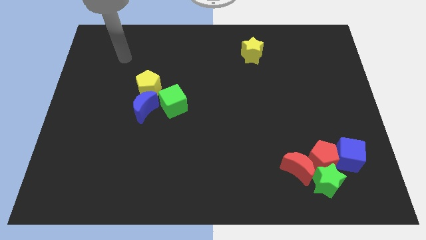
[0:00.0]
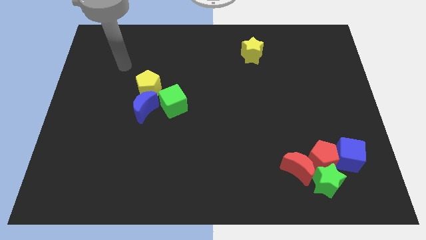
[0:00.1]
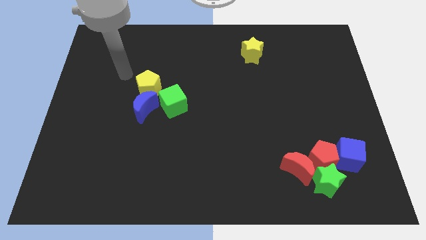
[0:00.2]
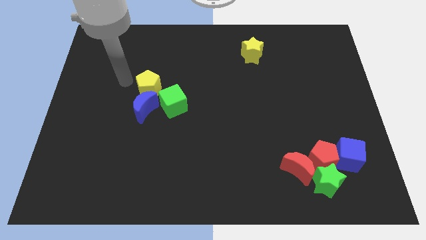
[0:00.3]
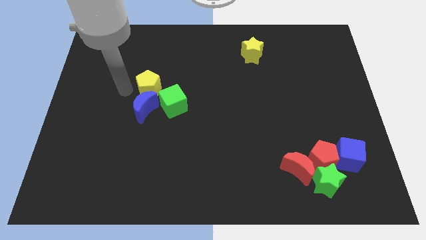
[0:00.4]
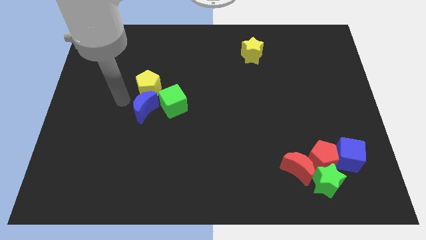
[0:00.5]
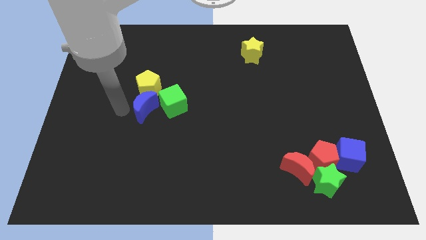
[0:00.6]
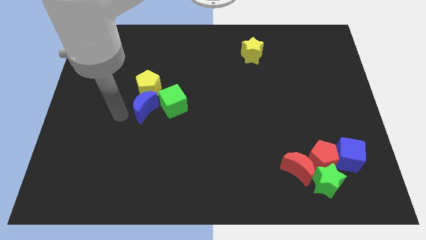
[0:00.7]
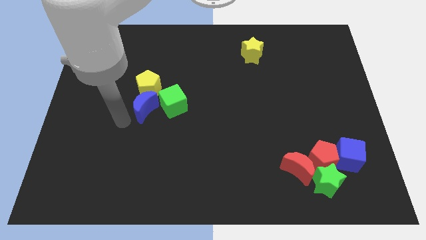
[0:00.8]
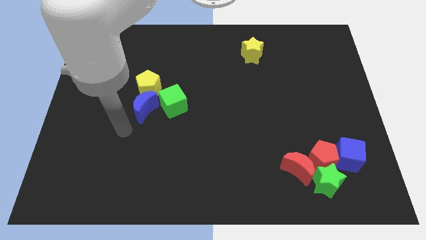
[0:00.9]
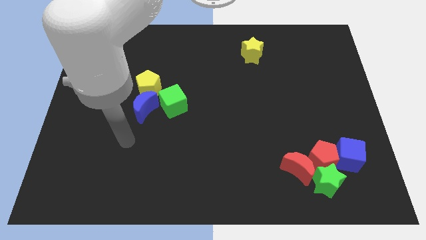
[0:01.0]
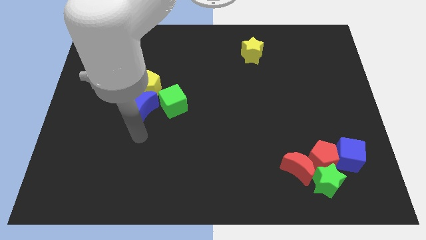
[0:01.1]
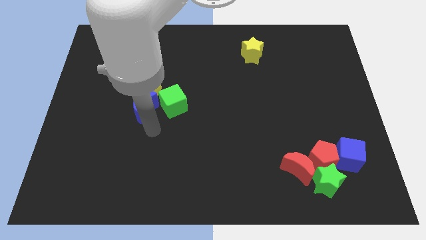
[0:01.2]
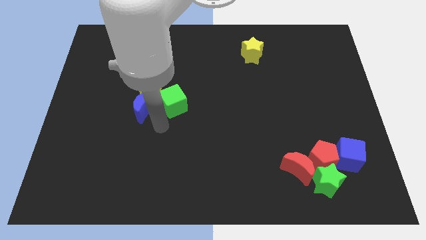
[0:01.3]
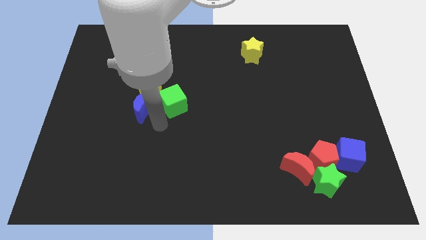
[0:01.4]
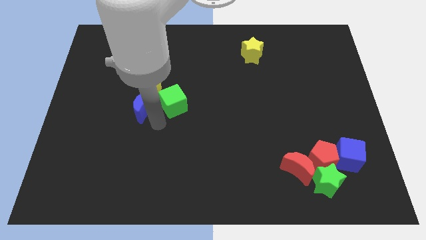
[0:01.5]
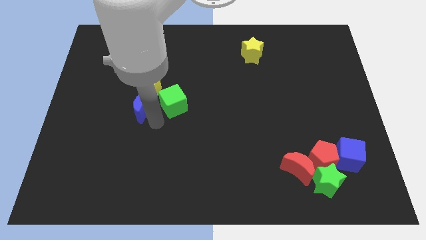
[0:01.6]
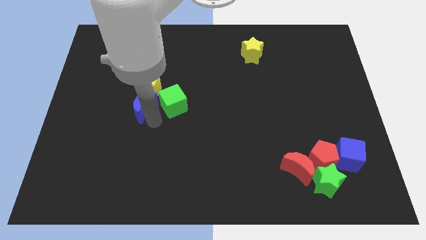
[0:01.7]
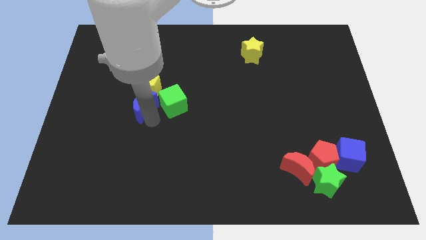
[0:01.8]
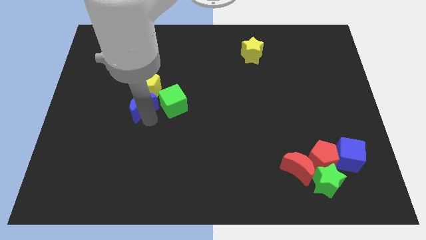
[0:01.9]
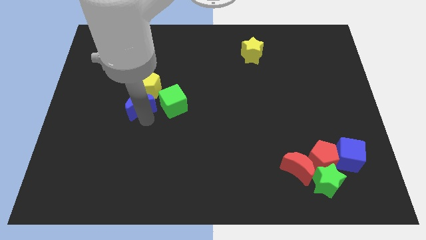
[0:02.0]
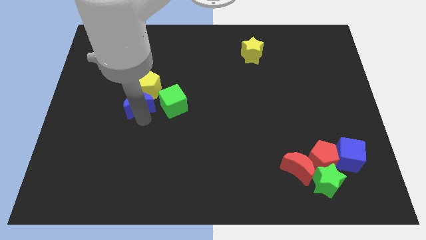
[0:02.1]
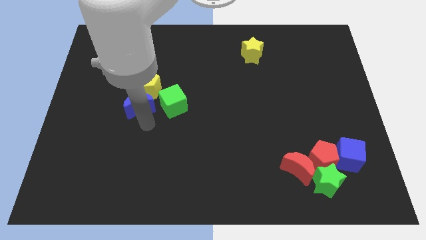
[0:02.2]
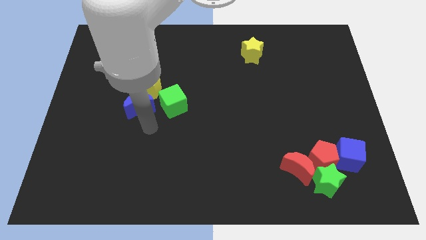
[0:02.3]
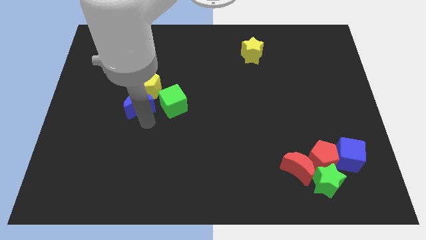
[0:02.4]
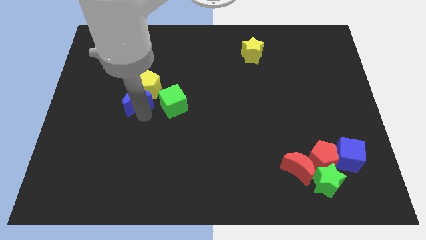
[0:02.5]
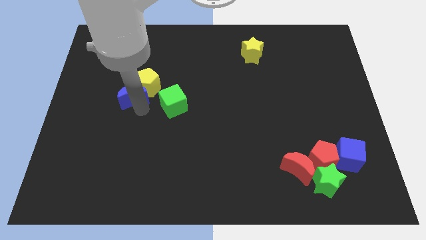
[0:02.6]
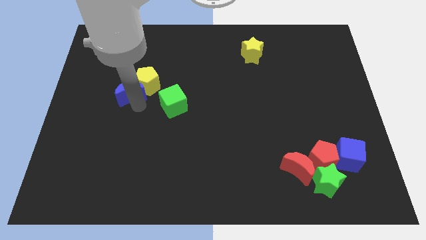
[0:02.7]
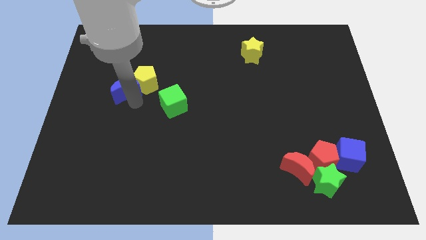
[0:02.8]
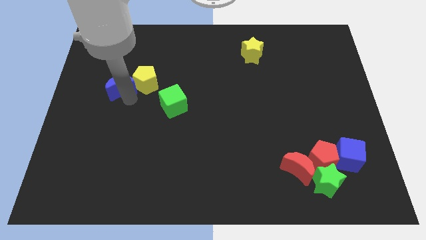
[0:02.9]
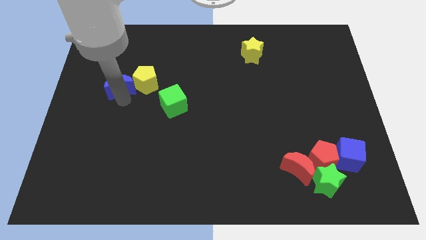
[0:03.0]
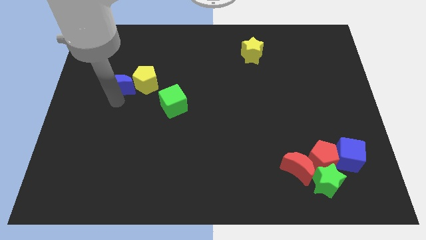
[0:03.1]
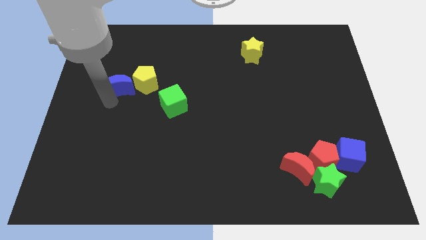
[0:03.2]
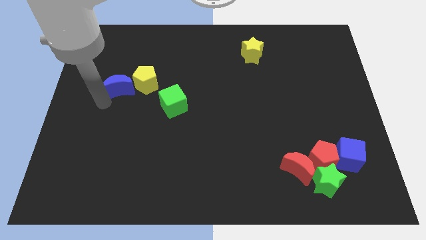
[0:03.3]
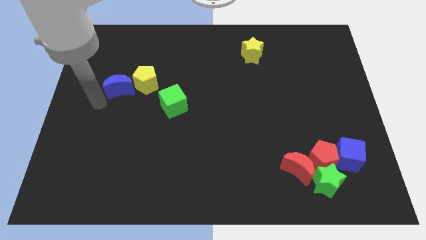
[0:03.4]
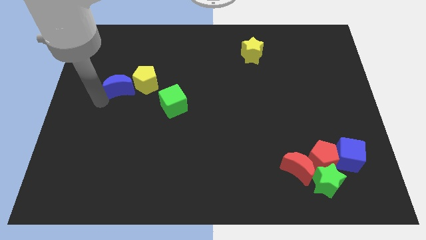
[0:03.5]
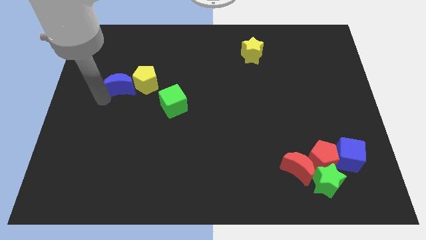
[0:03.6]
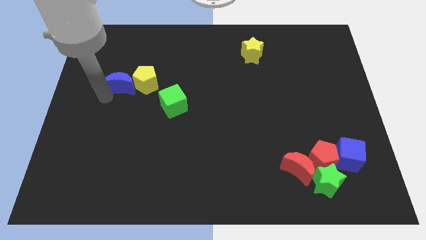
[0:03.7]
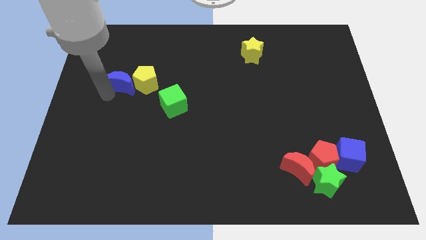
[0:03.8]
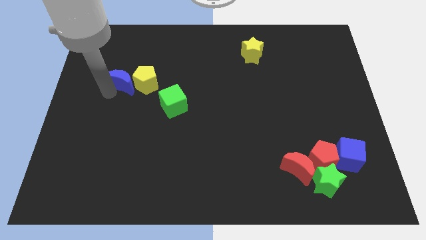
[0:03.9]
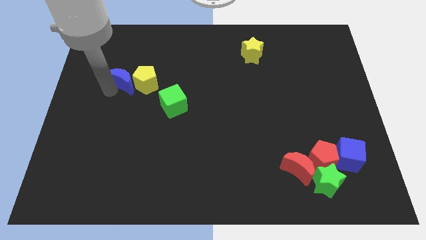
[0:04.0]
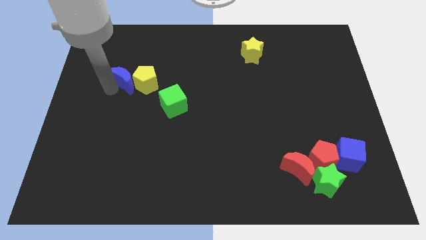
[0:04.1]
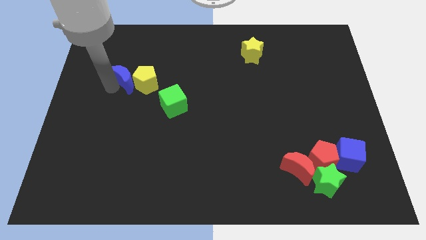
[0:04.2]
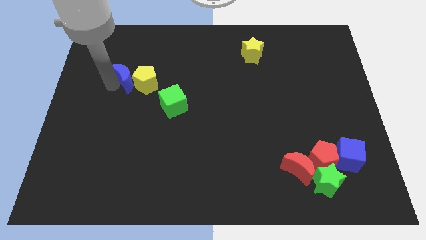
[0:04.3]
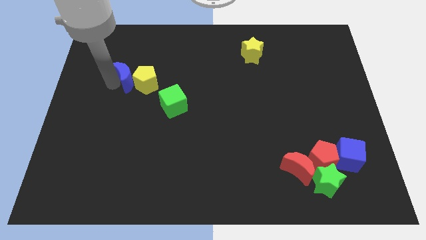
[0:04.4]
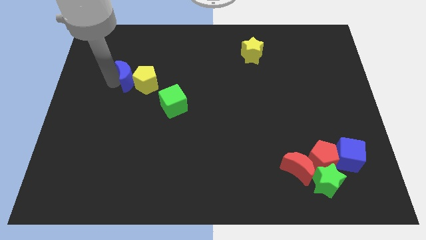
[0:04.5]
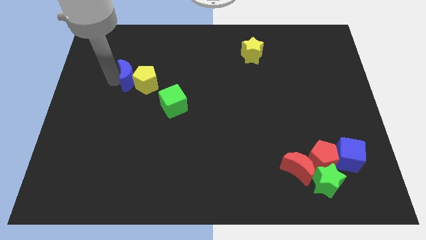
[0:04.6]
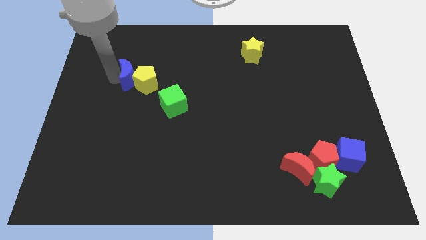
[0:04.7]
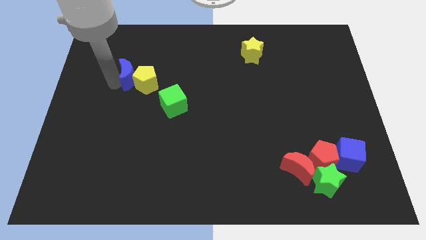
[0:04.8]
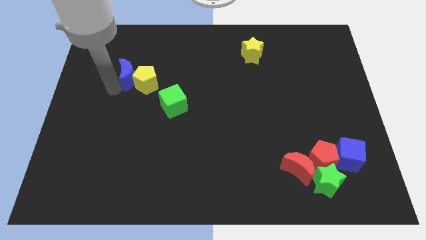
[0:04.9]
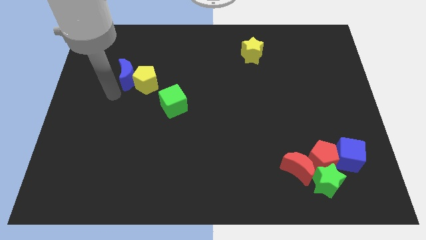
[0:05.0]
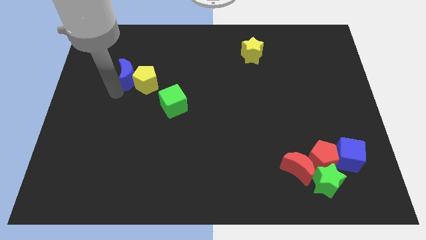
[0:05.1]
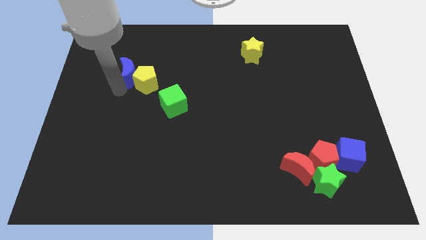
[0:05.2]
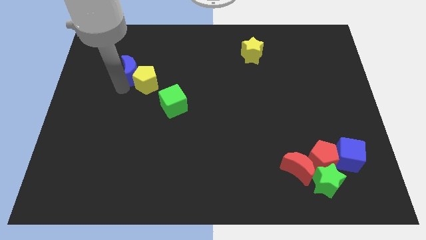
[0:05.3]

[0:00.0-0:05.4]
put the blue moon above the yellow pentagon
